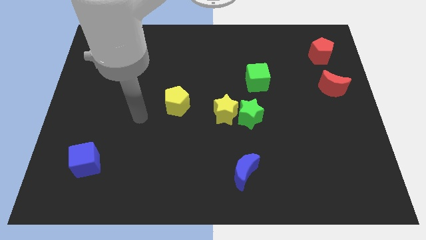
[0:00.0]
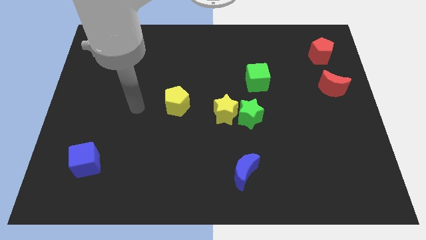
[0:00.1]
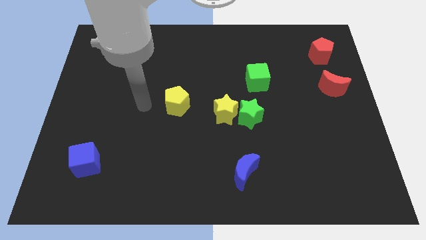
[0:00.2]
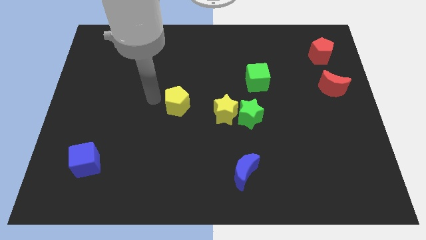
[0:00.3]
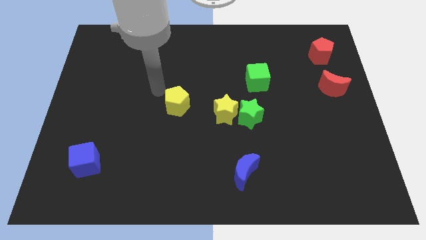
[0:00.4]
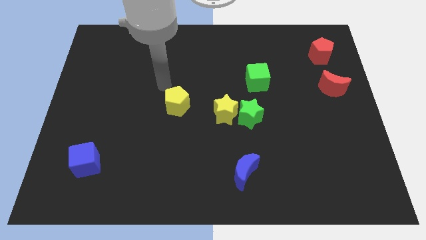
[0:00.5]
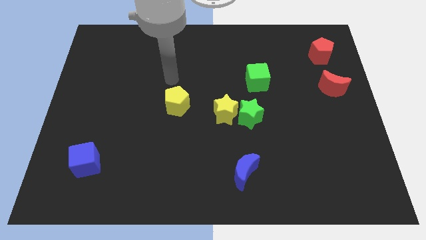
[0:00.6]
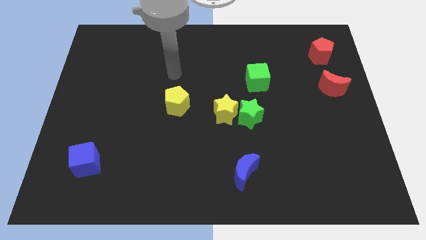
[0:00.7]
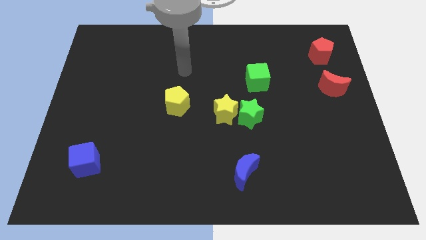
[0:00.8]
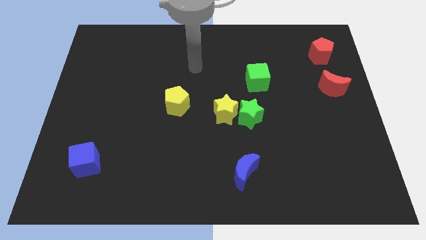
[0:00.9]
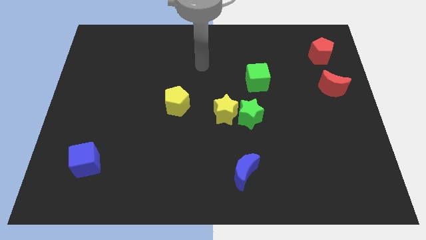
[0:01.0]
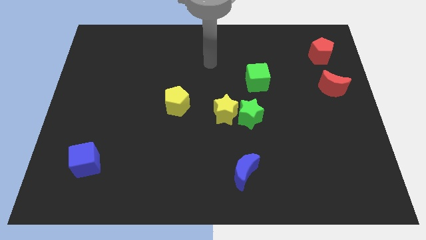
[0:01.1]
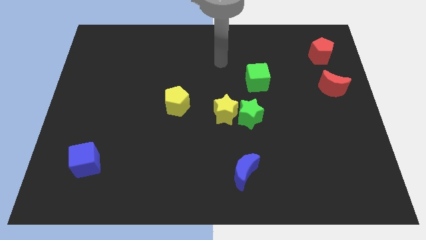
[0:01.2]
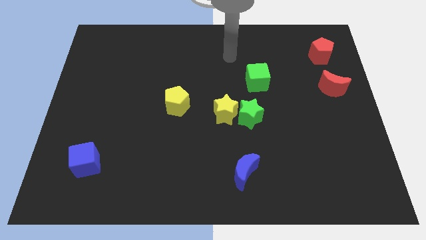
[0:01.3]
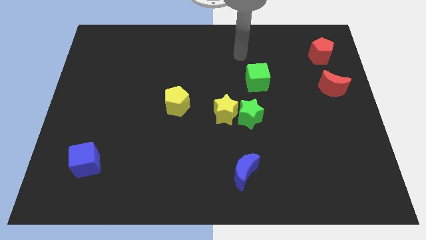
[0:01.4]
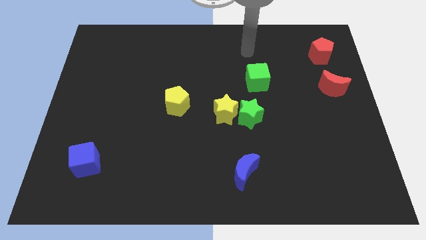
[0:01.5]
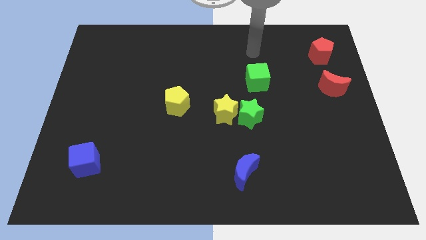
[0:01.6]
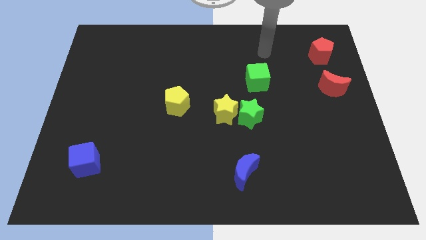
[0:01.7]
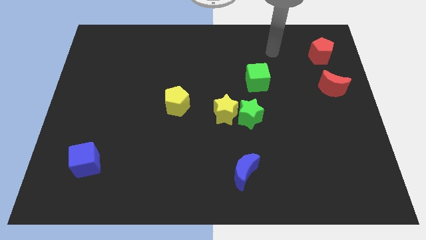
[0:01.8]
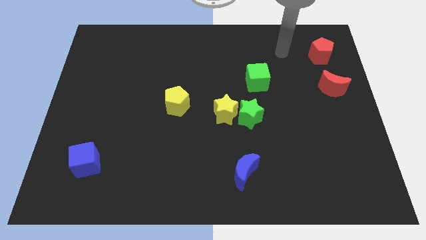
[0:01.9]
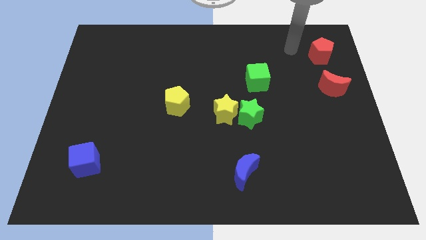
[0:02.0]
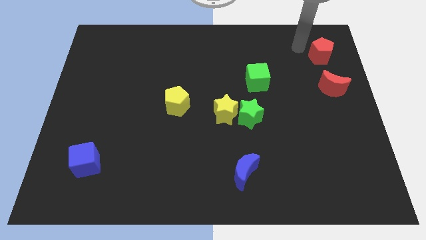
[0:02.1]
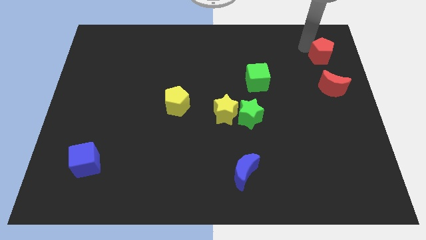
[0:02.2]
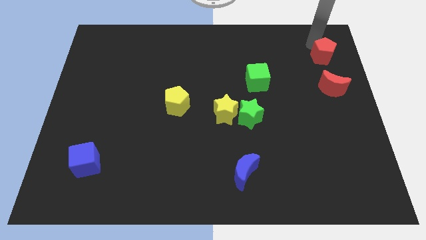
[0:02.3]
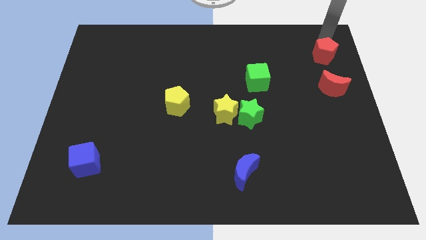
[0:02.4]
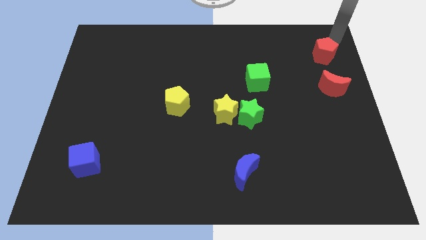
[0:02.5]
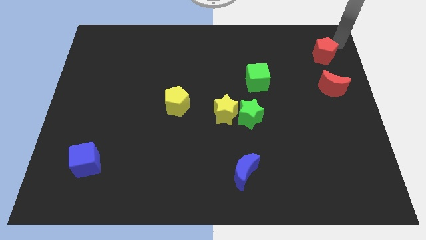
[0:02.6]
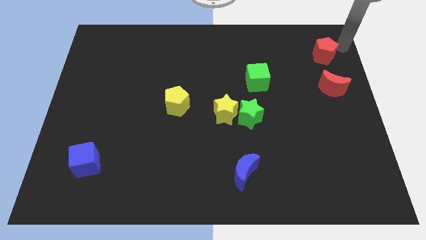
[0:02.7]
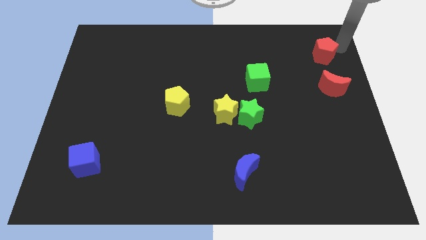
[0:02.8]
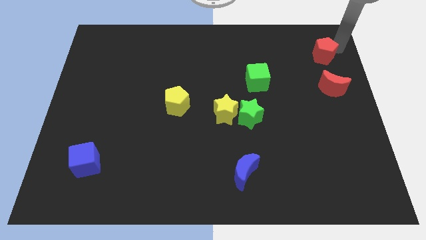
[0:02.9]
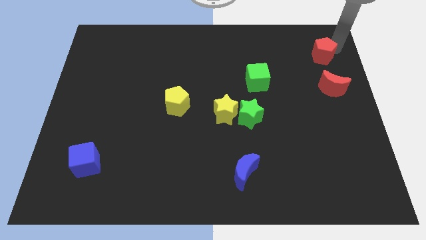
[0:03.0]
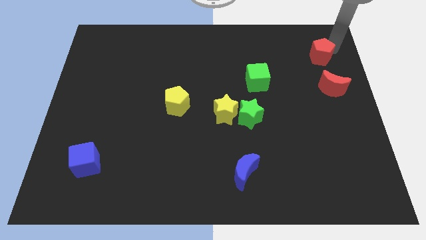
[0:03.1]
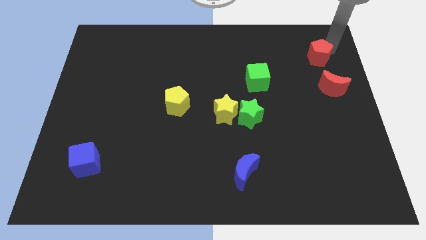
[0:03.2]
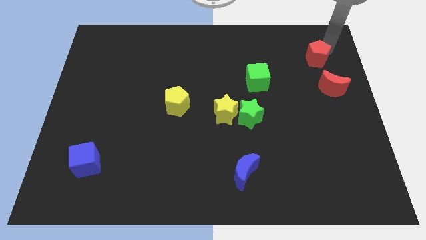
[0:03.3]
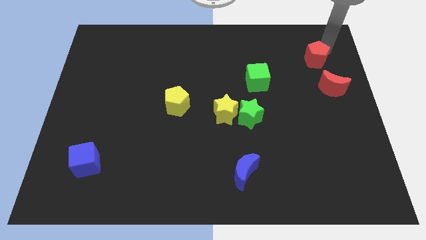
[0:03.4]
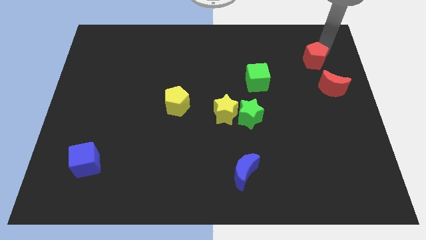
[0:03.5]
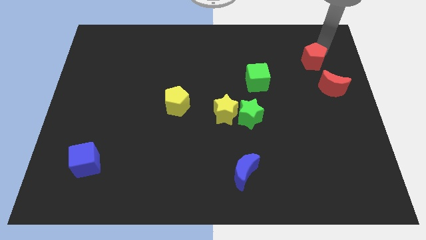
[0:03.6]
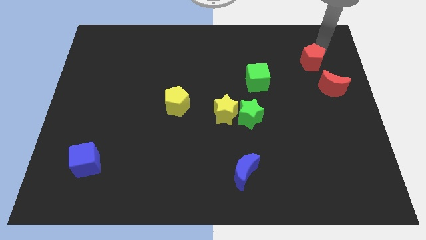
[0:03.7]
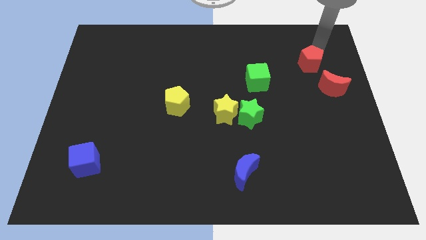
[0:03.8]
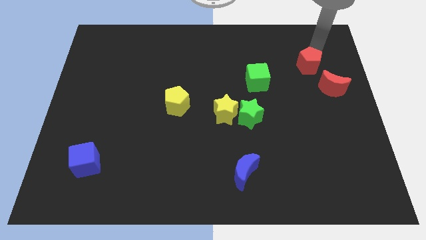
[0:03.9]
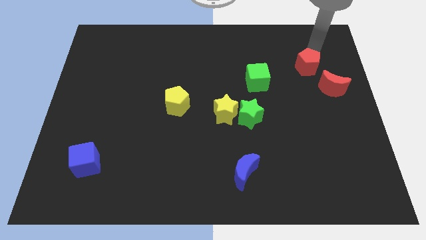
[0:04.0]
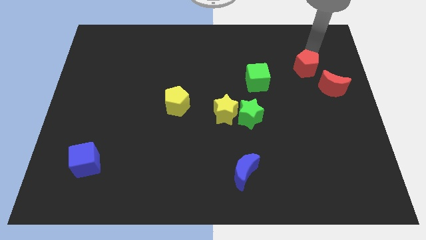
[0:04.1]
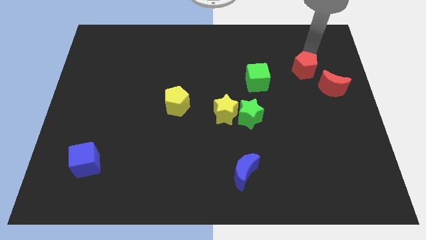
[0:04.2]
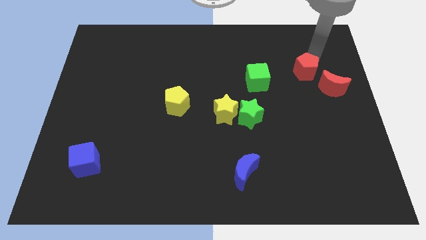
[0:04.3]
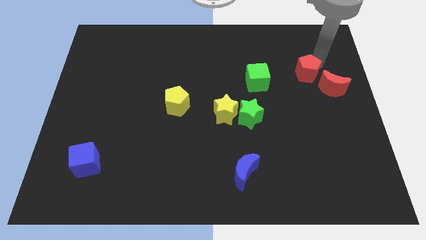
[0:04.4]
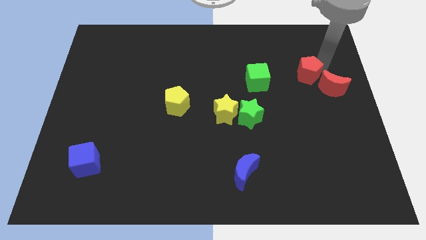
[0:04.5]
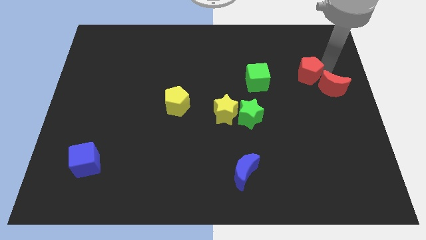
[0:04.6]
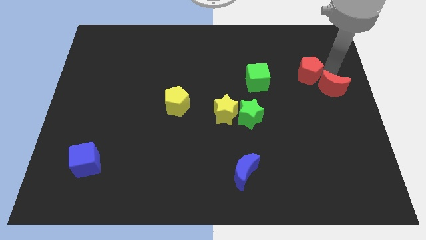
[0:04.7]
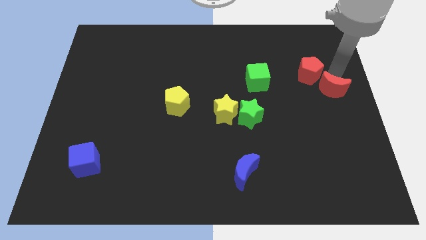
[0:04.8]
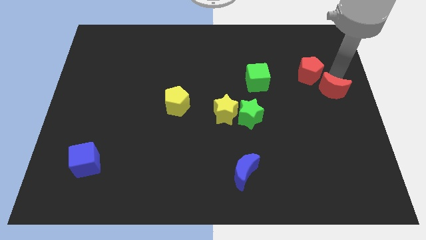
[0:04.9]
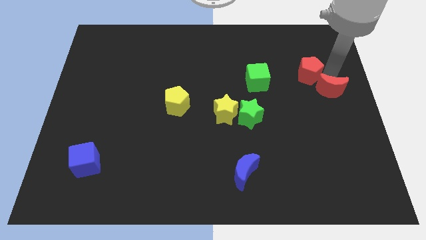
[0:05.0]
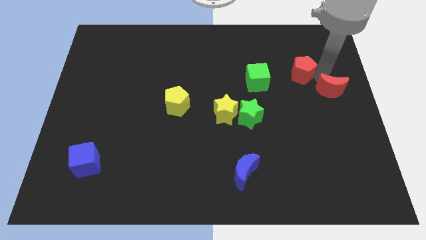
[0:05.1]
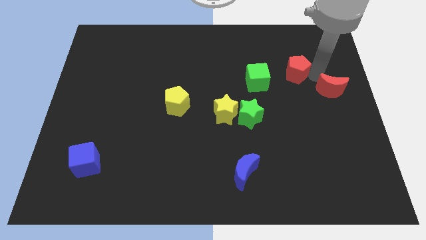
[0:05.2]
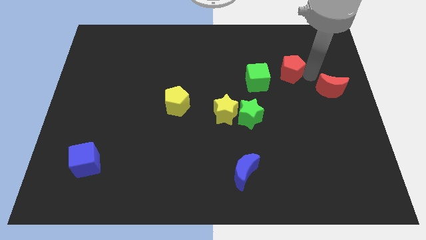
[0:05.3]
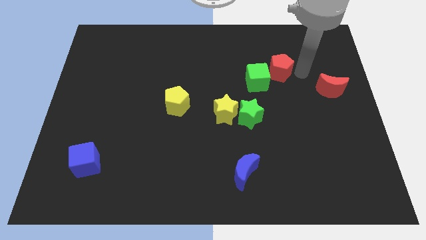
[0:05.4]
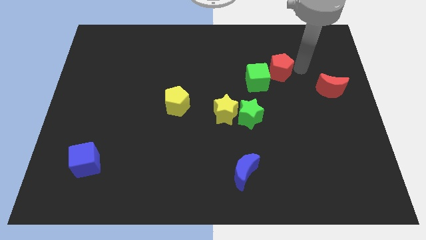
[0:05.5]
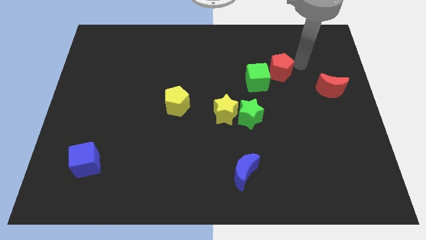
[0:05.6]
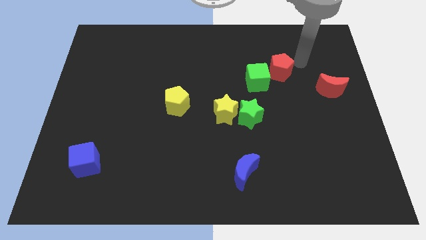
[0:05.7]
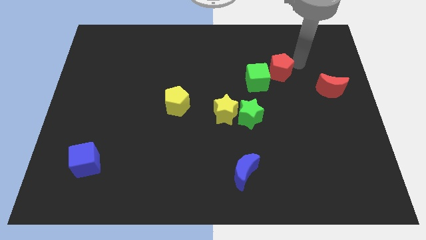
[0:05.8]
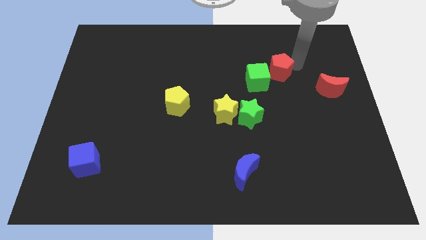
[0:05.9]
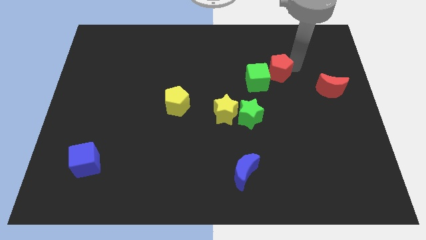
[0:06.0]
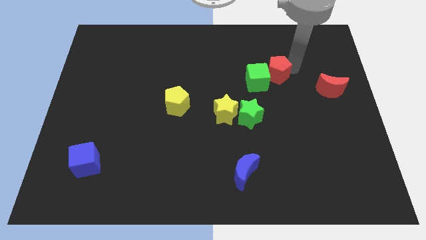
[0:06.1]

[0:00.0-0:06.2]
push the red pentagon to the green cube

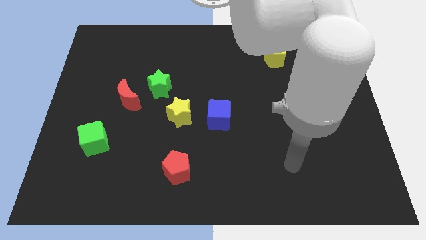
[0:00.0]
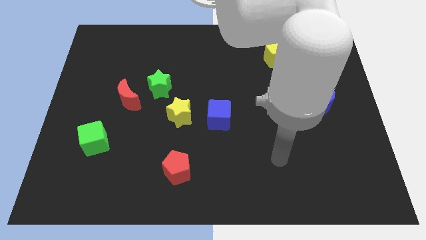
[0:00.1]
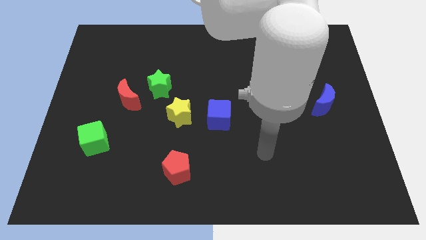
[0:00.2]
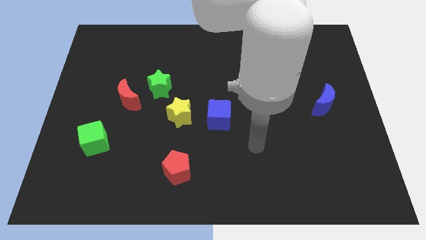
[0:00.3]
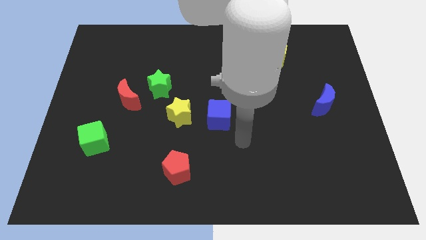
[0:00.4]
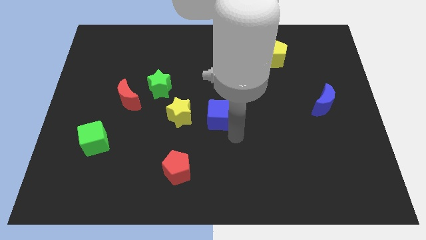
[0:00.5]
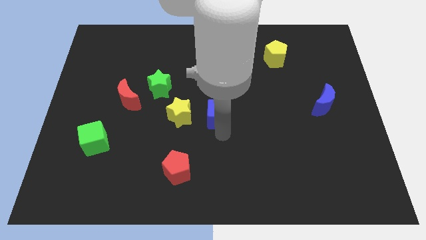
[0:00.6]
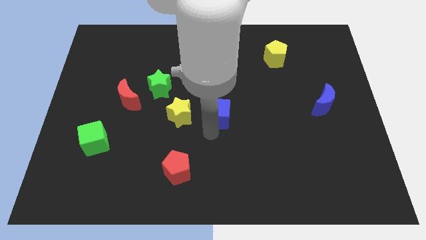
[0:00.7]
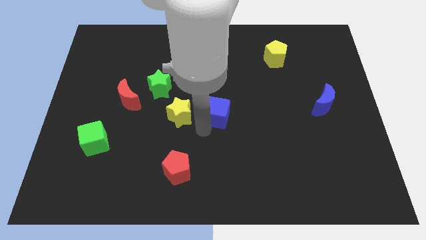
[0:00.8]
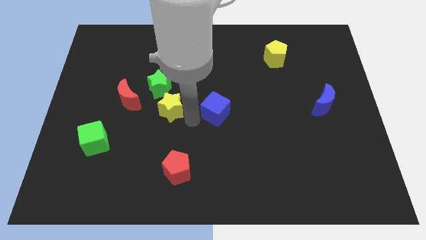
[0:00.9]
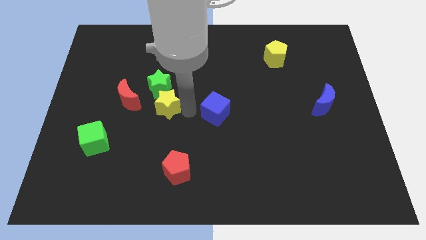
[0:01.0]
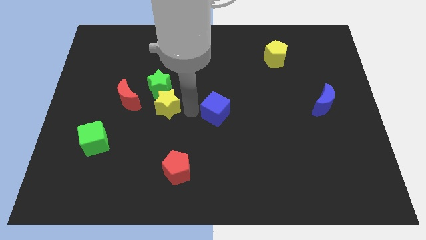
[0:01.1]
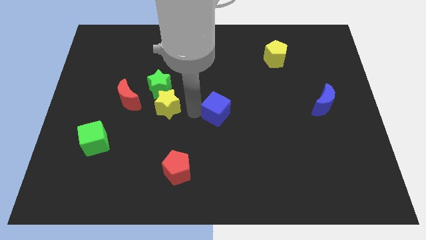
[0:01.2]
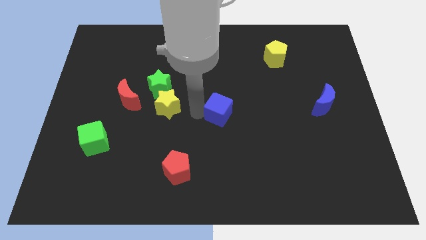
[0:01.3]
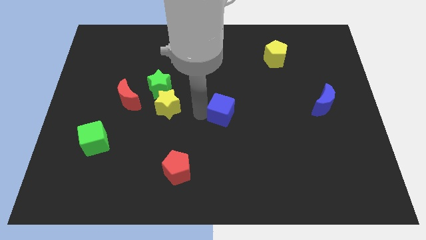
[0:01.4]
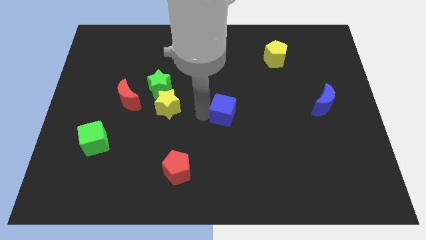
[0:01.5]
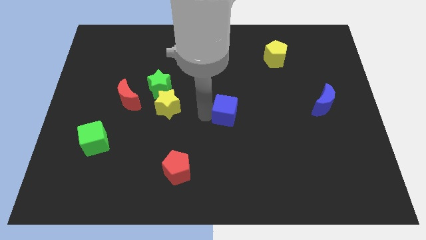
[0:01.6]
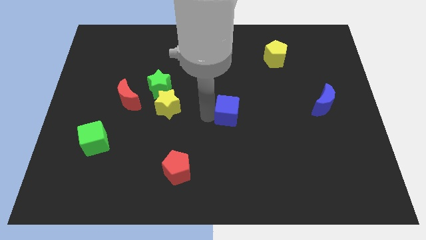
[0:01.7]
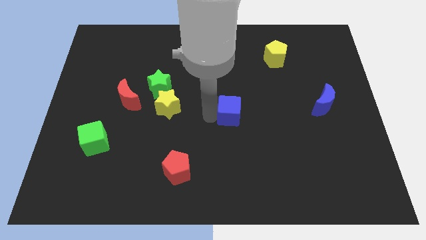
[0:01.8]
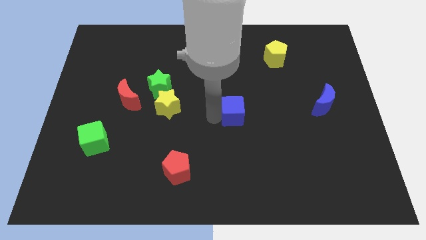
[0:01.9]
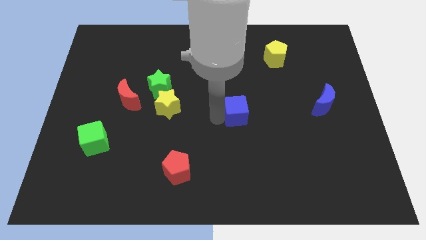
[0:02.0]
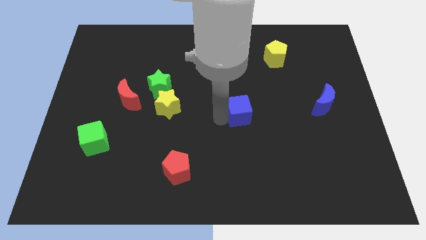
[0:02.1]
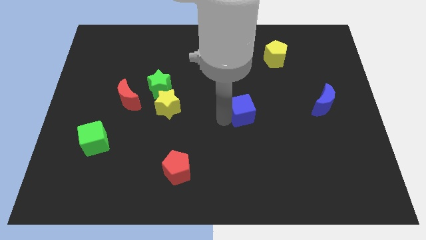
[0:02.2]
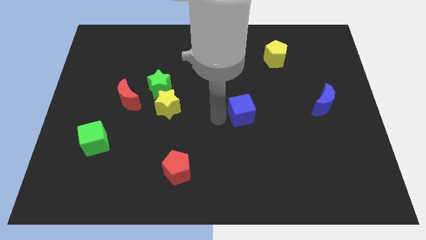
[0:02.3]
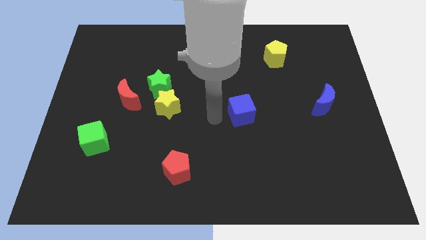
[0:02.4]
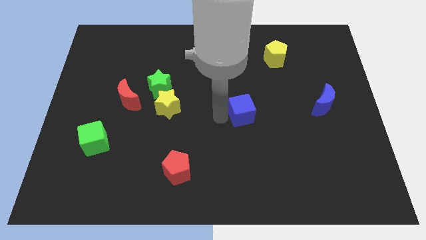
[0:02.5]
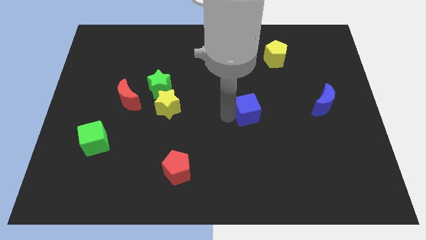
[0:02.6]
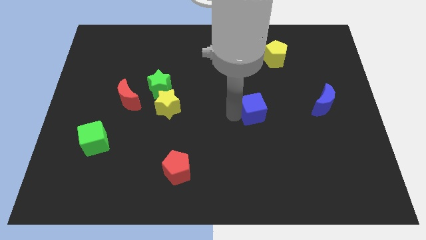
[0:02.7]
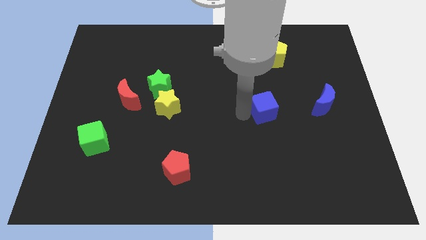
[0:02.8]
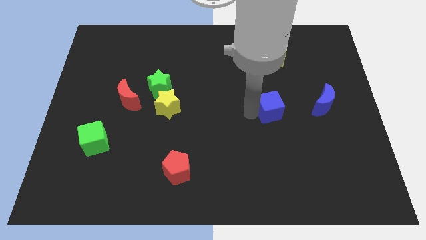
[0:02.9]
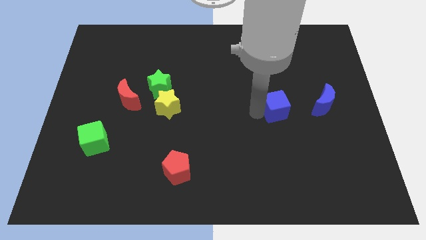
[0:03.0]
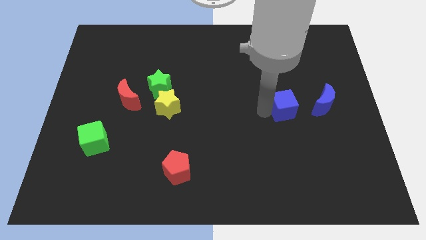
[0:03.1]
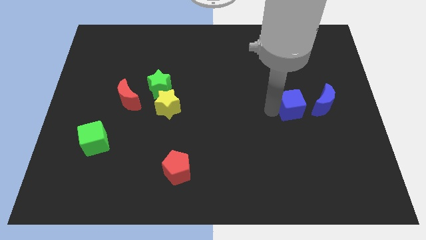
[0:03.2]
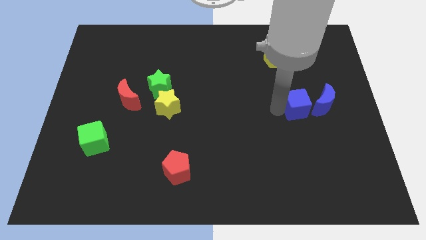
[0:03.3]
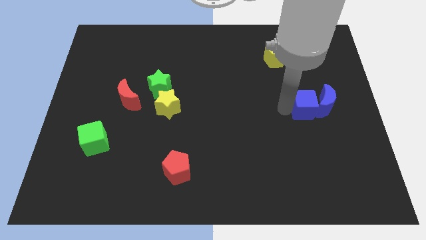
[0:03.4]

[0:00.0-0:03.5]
put the blue cube next to the blue moon
